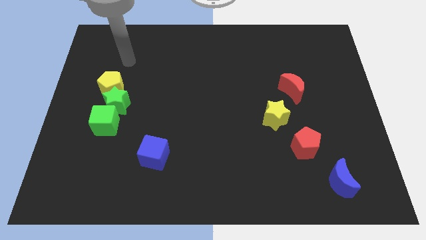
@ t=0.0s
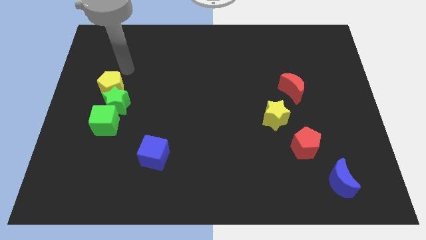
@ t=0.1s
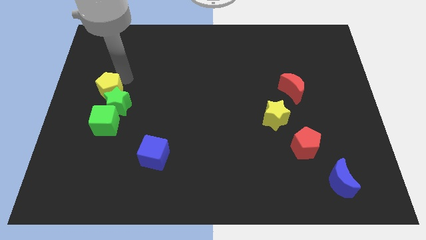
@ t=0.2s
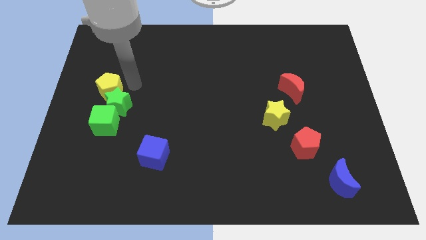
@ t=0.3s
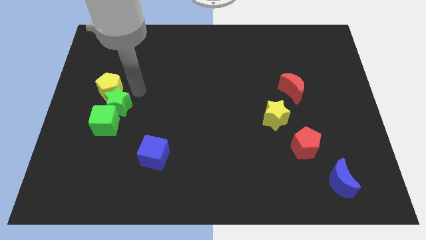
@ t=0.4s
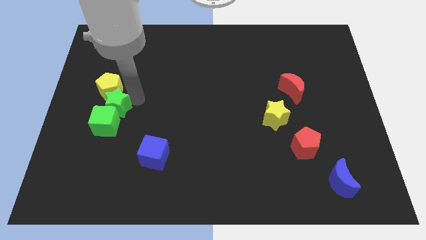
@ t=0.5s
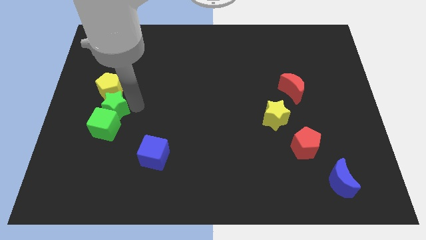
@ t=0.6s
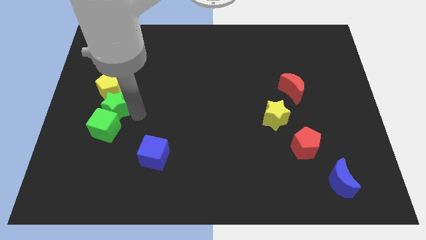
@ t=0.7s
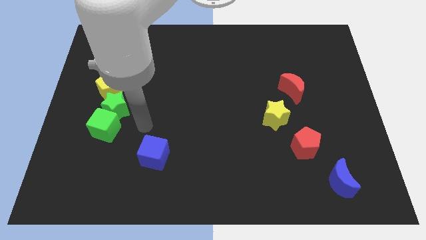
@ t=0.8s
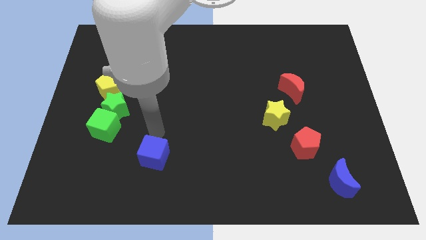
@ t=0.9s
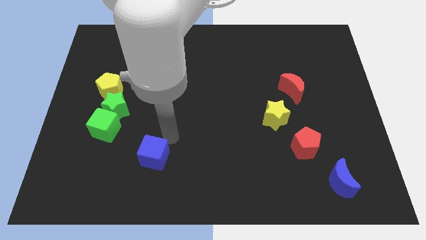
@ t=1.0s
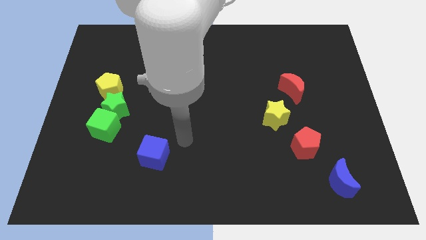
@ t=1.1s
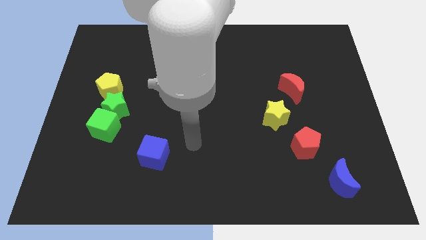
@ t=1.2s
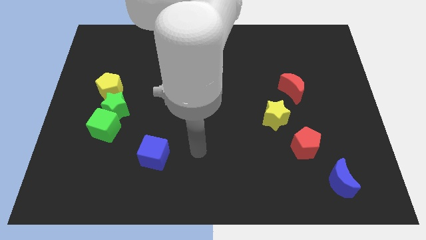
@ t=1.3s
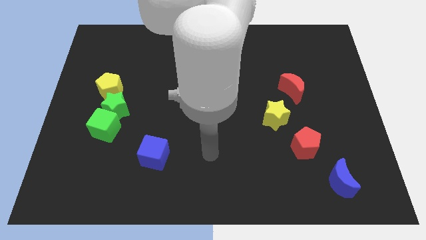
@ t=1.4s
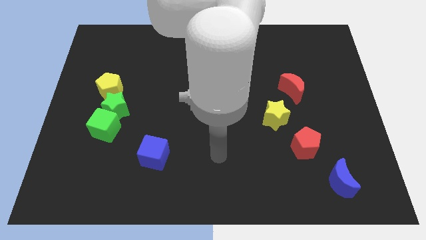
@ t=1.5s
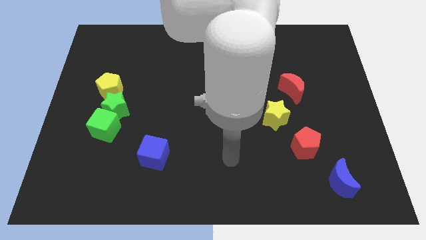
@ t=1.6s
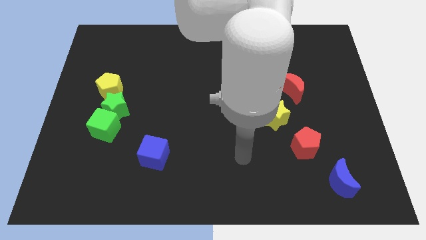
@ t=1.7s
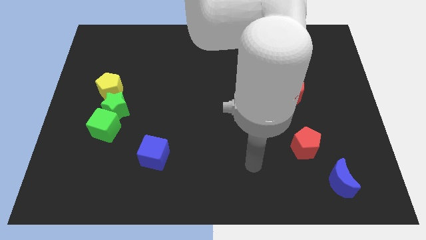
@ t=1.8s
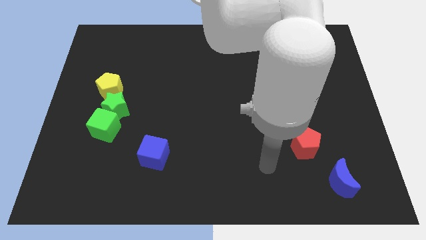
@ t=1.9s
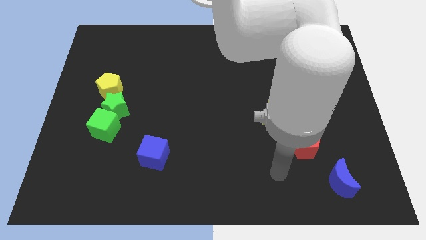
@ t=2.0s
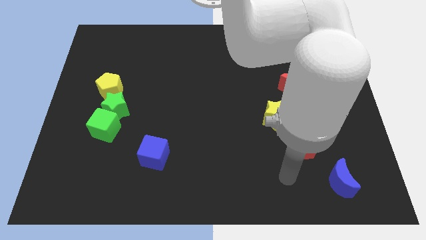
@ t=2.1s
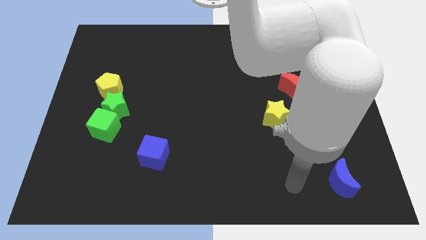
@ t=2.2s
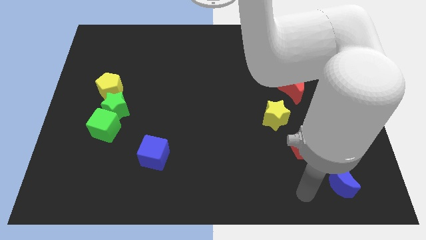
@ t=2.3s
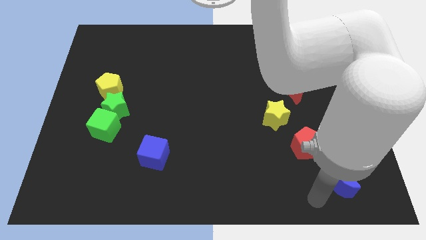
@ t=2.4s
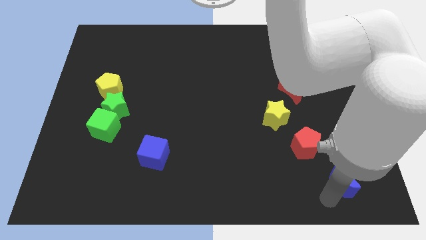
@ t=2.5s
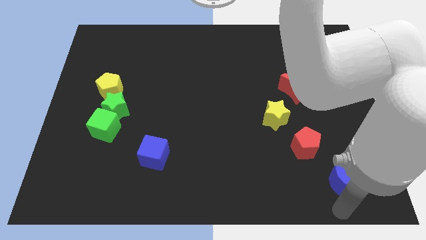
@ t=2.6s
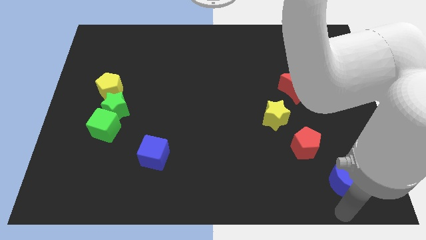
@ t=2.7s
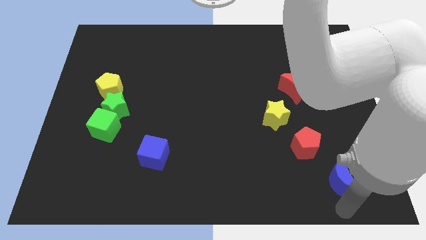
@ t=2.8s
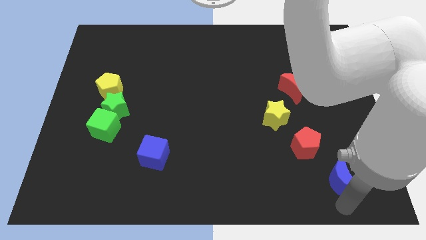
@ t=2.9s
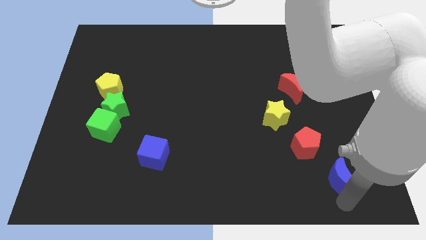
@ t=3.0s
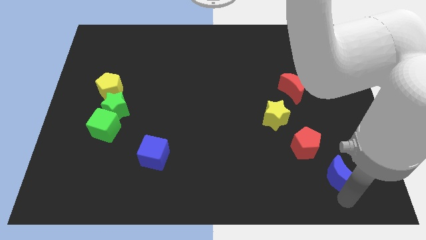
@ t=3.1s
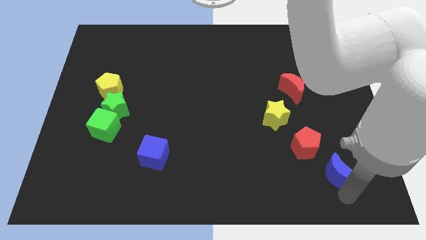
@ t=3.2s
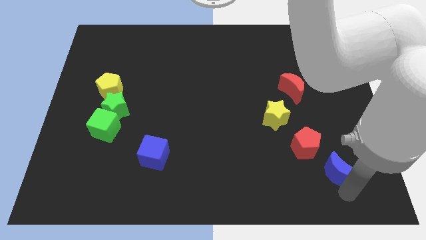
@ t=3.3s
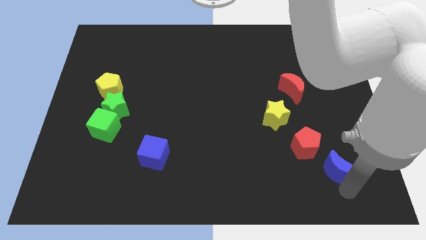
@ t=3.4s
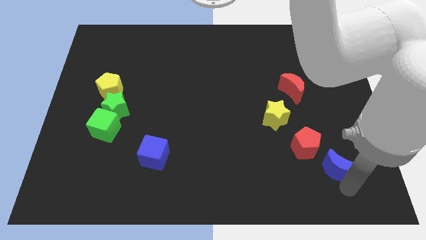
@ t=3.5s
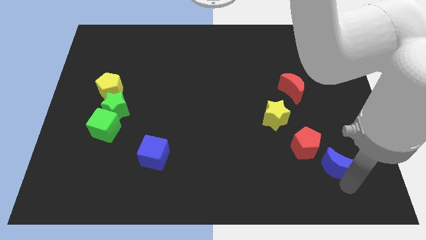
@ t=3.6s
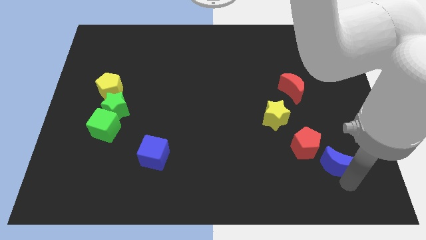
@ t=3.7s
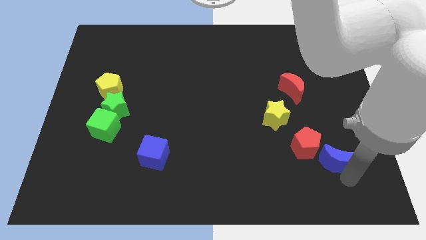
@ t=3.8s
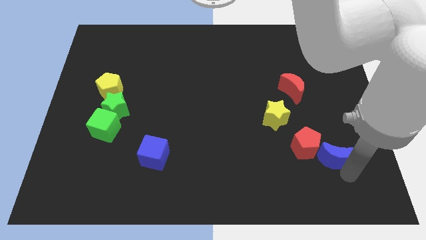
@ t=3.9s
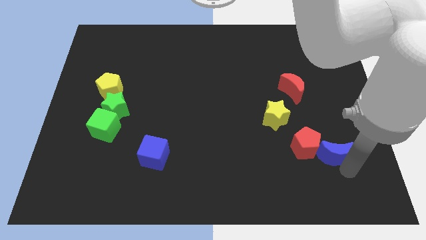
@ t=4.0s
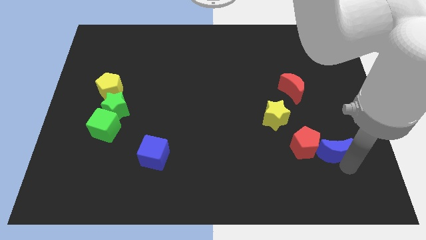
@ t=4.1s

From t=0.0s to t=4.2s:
push the blue moon up a little bit

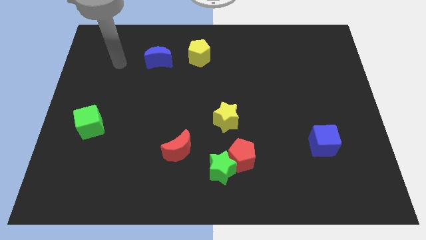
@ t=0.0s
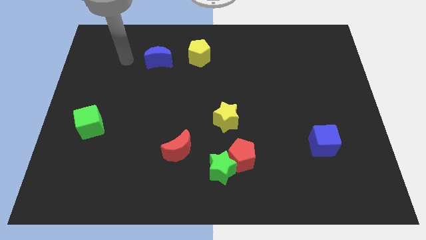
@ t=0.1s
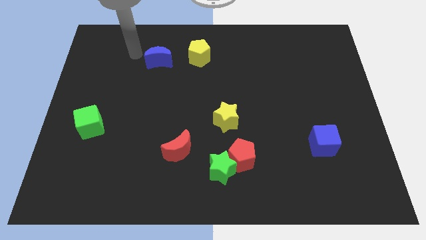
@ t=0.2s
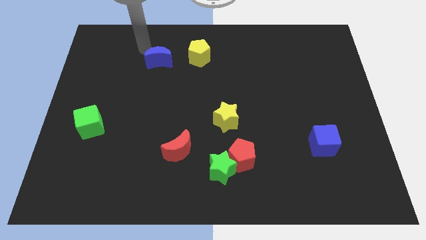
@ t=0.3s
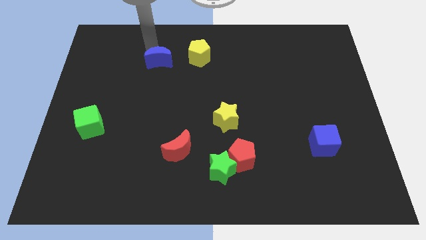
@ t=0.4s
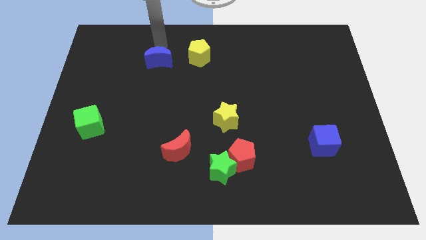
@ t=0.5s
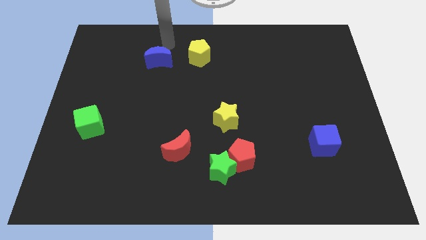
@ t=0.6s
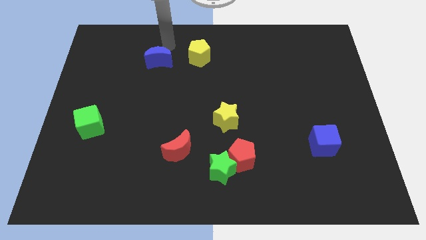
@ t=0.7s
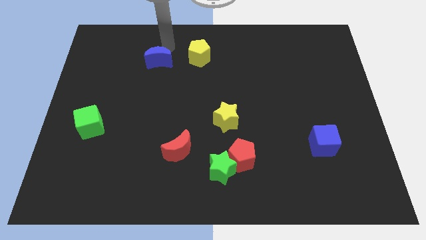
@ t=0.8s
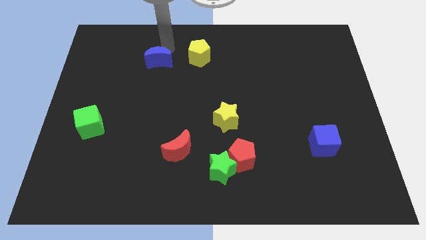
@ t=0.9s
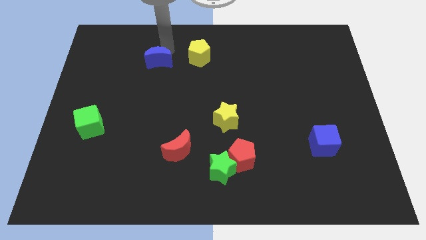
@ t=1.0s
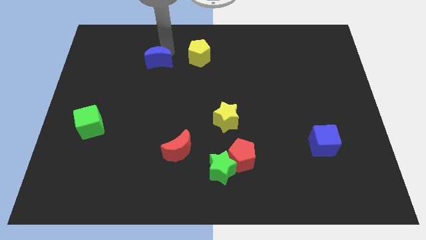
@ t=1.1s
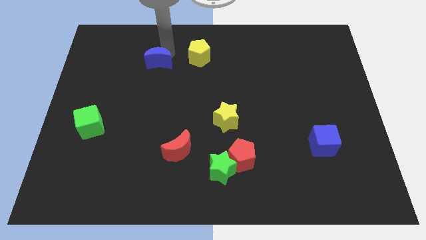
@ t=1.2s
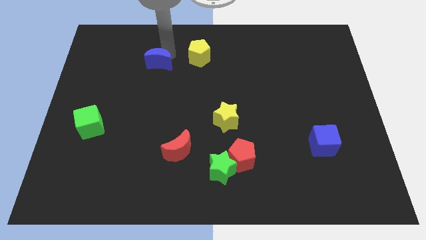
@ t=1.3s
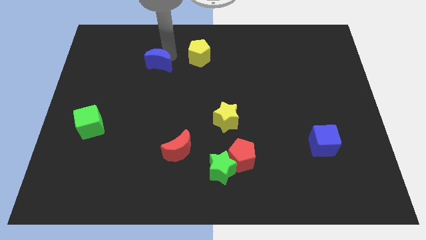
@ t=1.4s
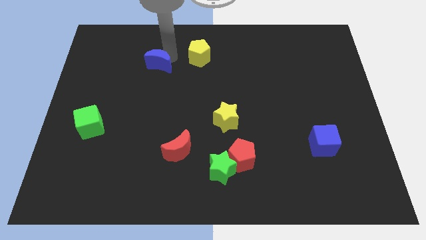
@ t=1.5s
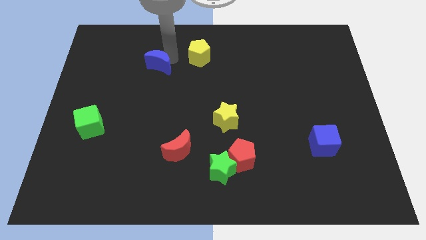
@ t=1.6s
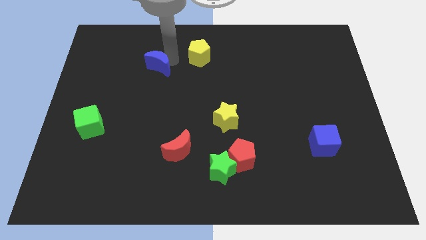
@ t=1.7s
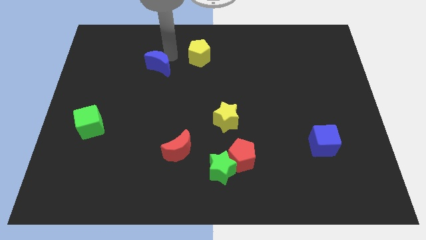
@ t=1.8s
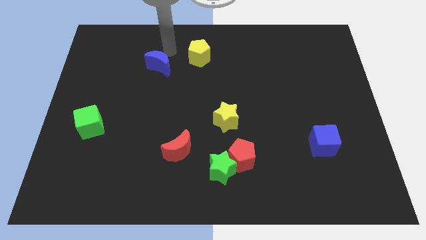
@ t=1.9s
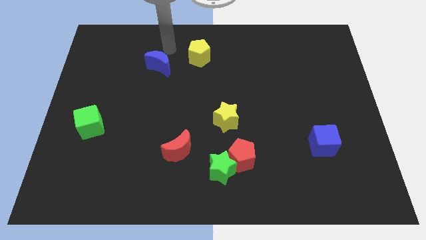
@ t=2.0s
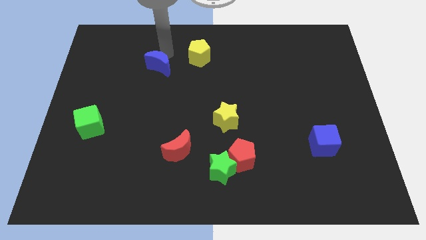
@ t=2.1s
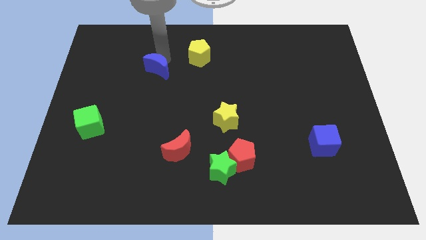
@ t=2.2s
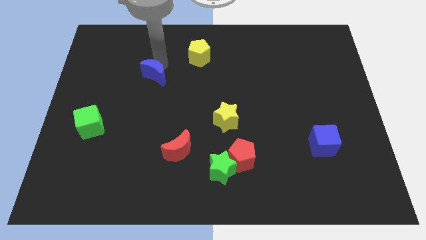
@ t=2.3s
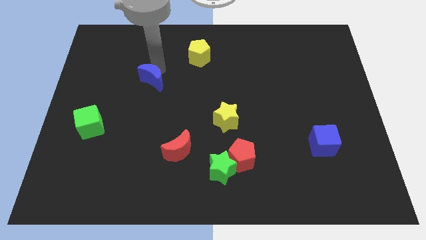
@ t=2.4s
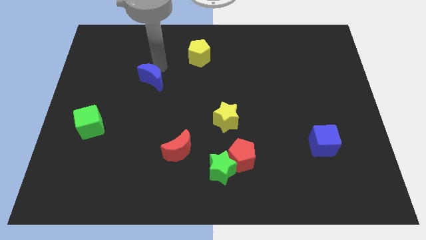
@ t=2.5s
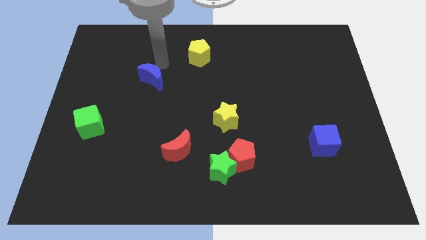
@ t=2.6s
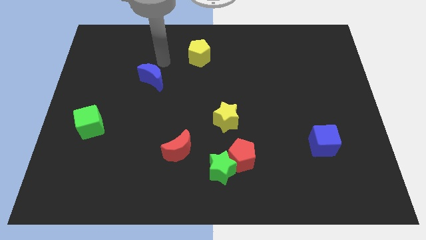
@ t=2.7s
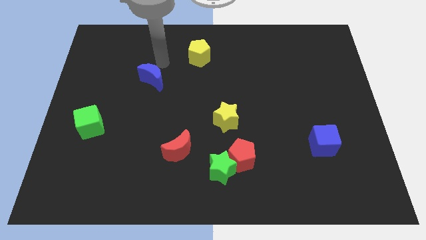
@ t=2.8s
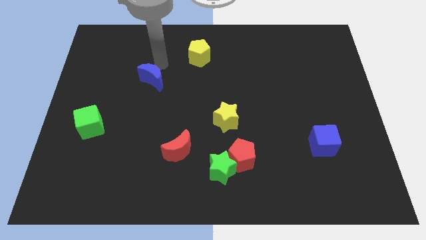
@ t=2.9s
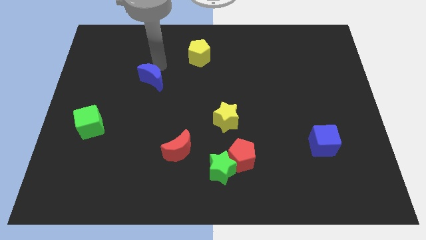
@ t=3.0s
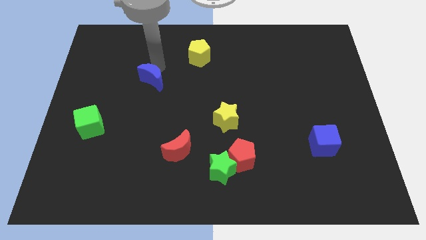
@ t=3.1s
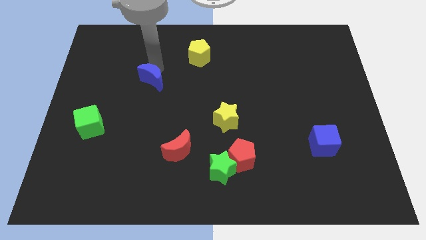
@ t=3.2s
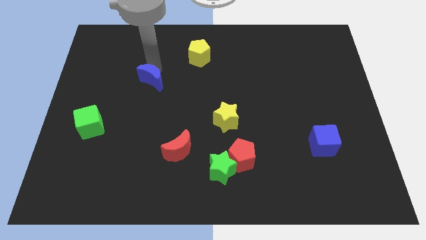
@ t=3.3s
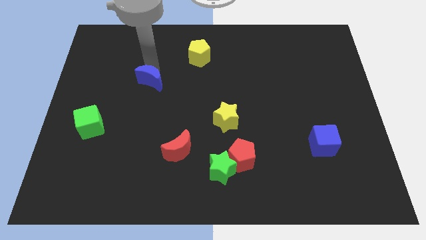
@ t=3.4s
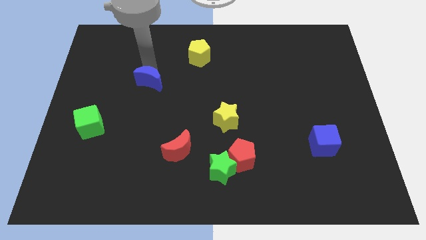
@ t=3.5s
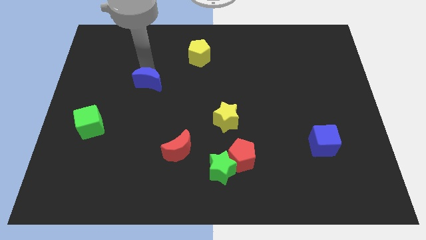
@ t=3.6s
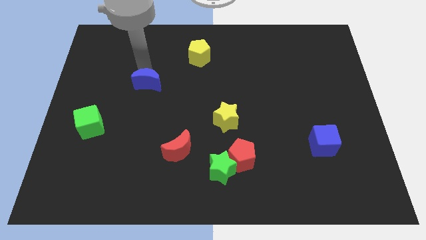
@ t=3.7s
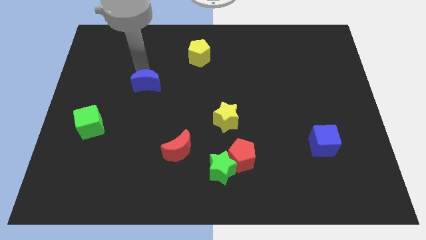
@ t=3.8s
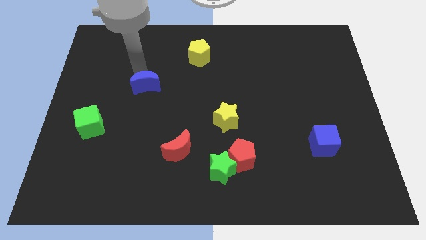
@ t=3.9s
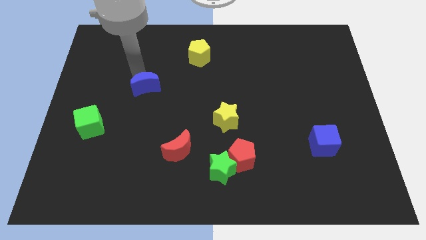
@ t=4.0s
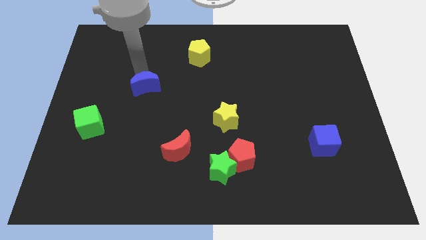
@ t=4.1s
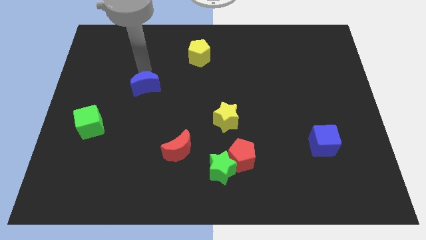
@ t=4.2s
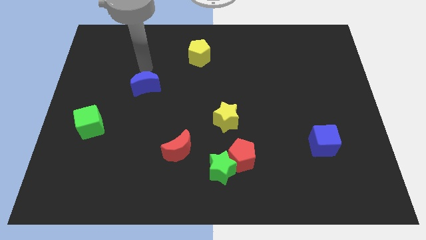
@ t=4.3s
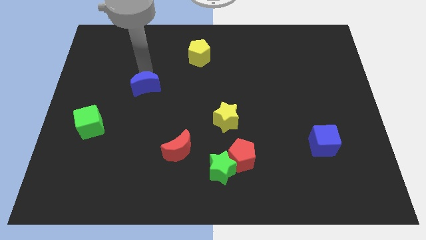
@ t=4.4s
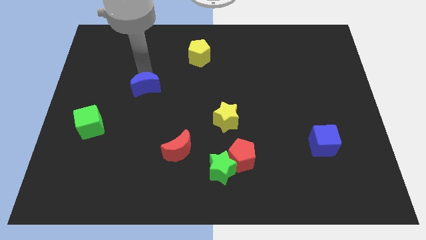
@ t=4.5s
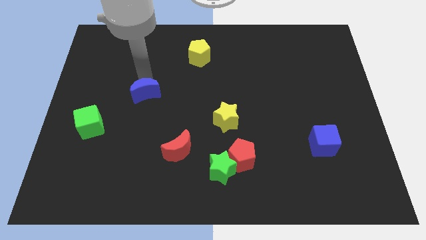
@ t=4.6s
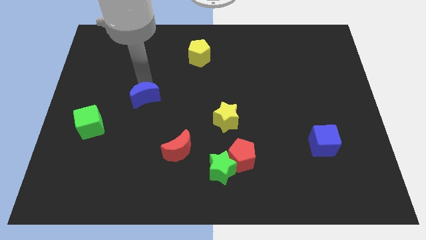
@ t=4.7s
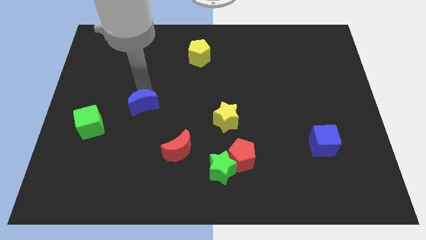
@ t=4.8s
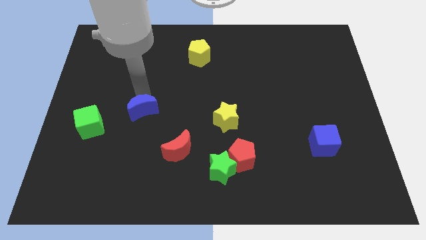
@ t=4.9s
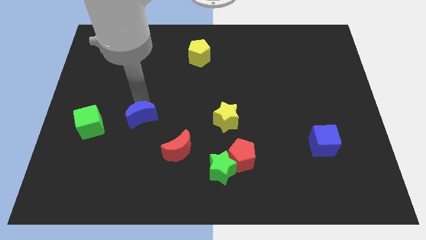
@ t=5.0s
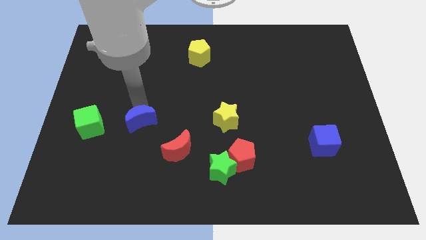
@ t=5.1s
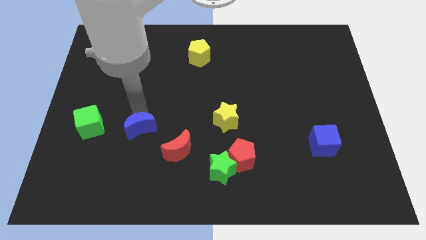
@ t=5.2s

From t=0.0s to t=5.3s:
slide the blue moon downwards
